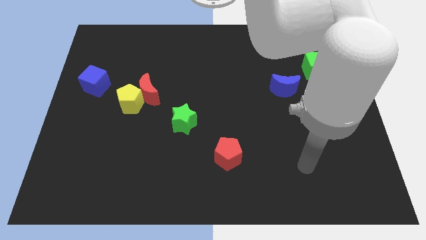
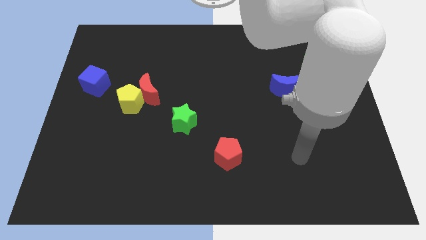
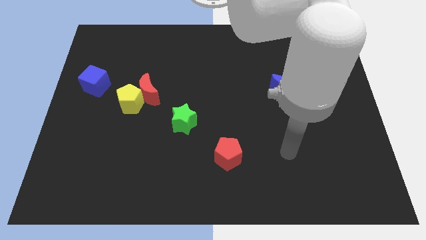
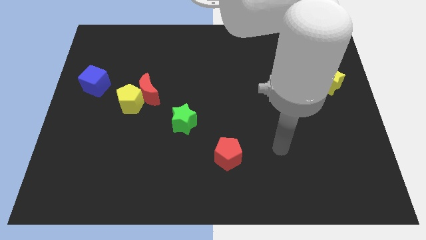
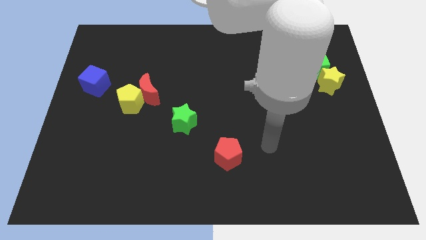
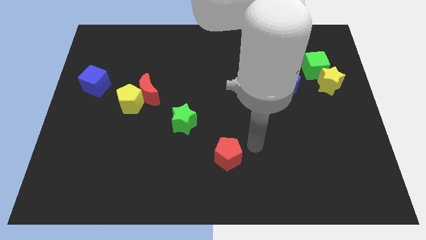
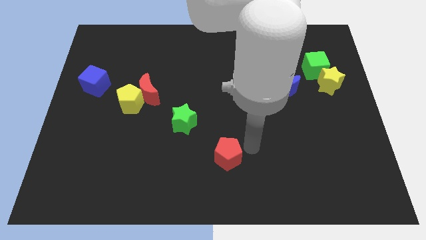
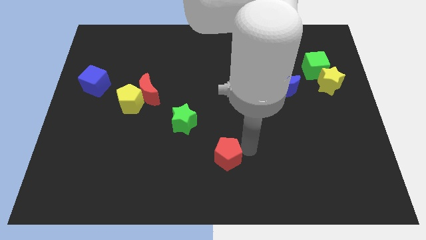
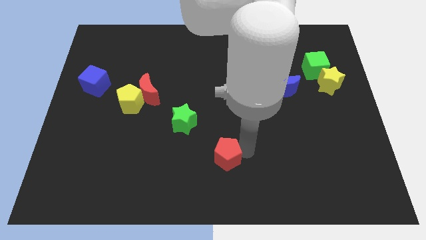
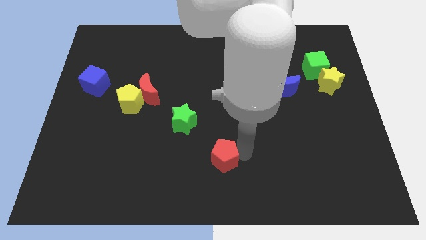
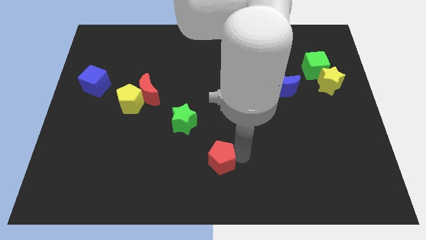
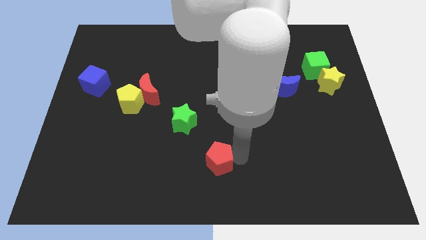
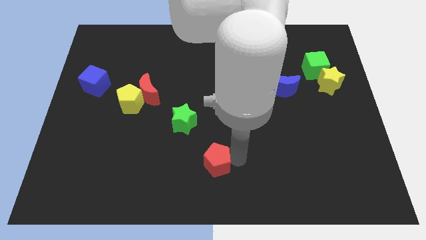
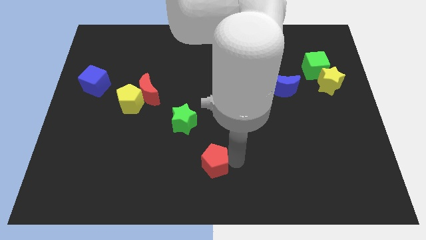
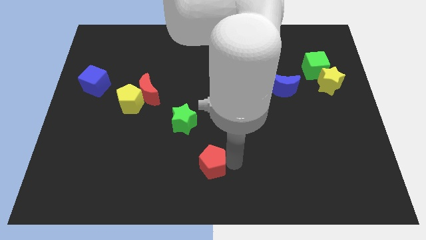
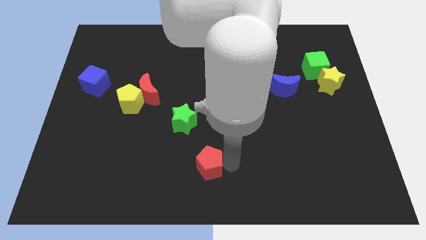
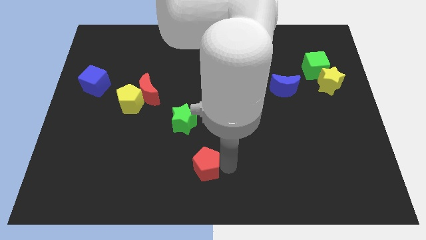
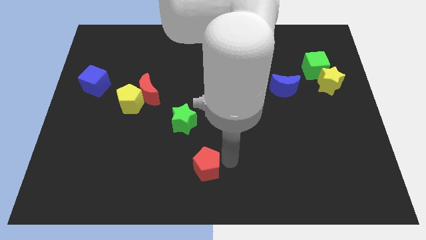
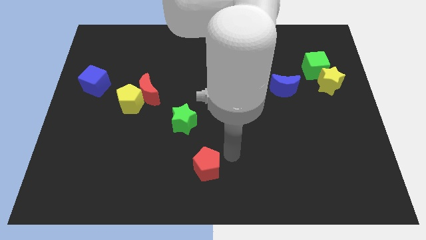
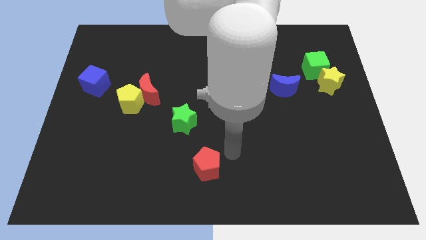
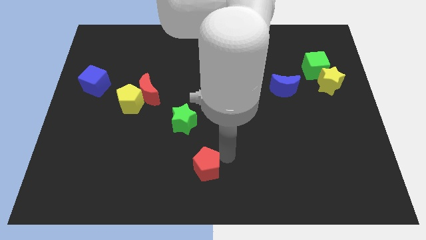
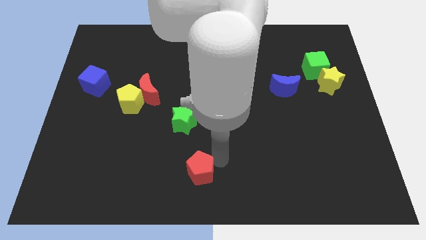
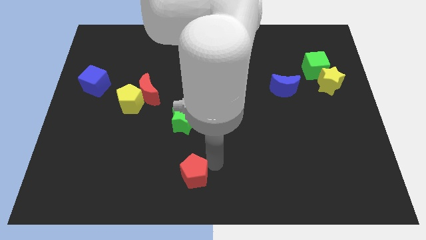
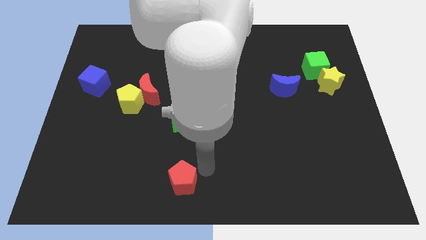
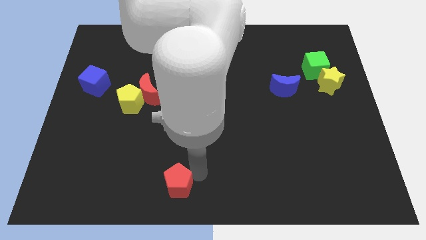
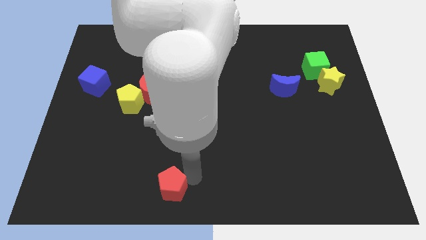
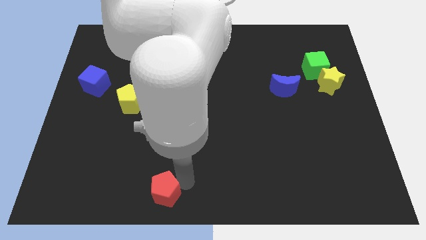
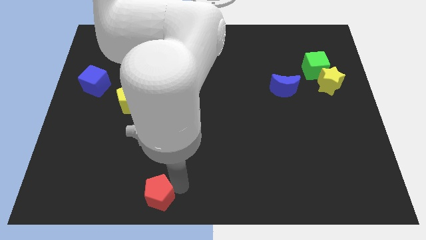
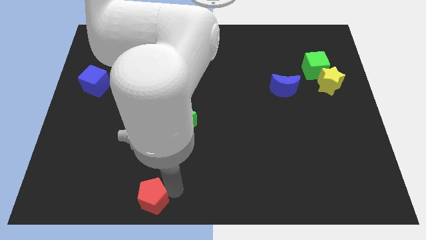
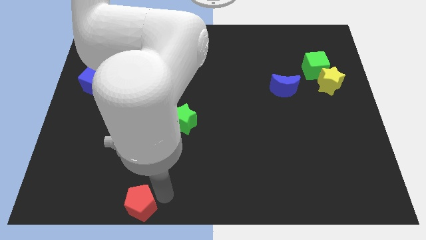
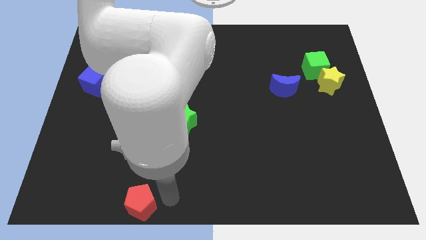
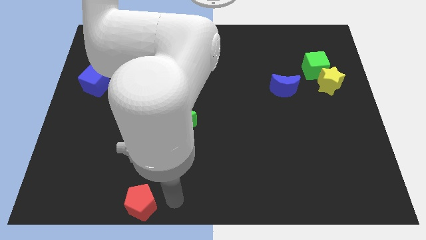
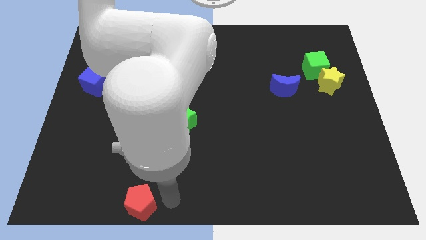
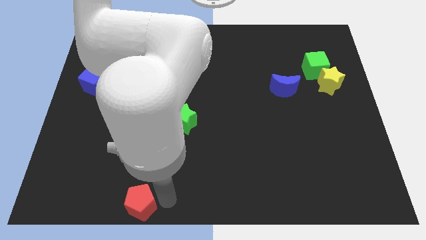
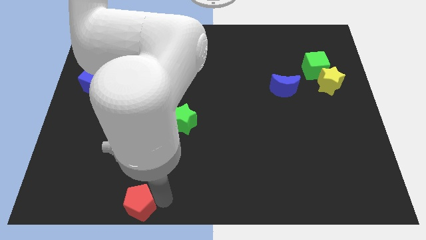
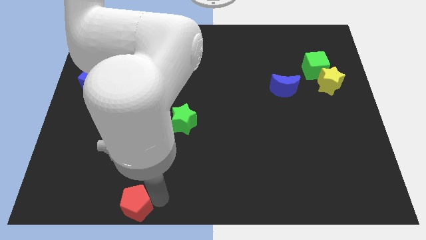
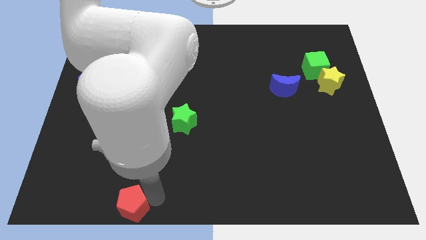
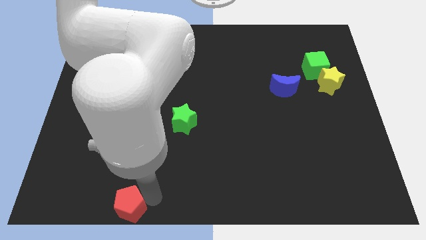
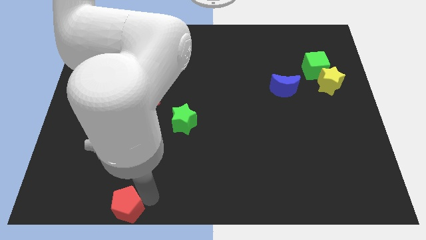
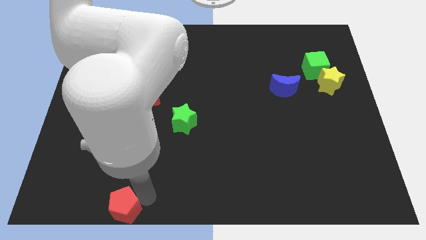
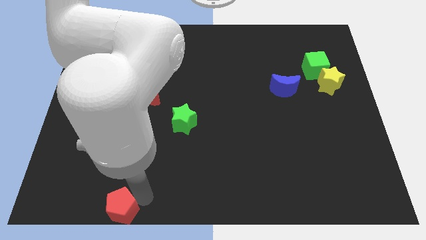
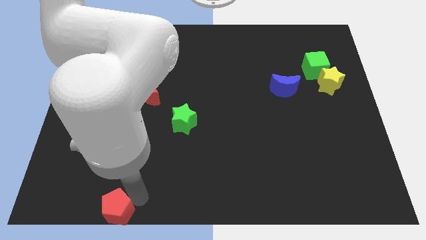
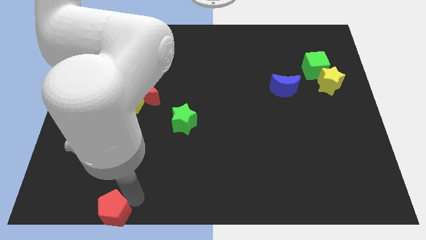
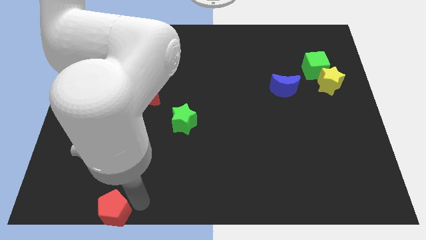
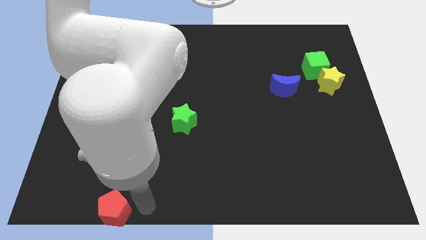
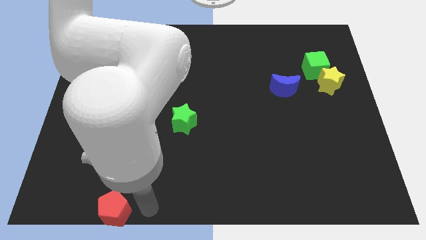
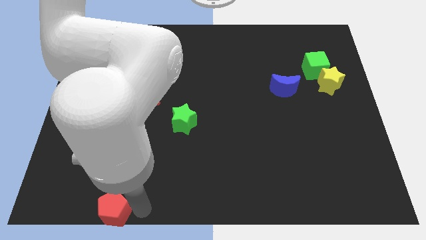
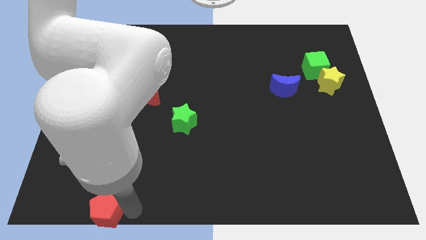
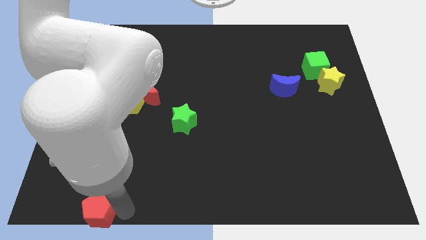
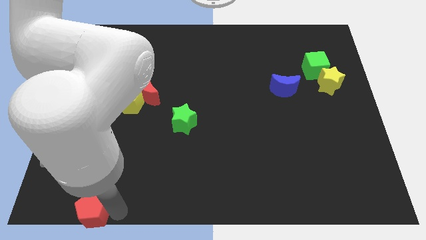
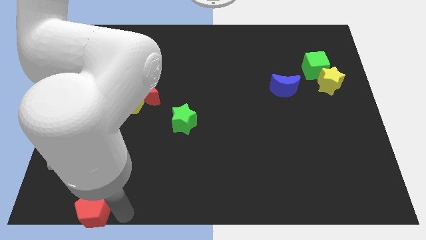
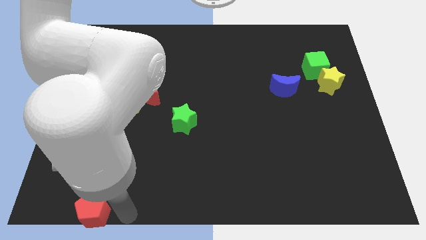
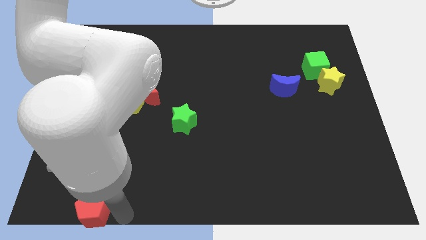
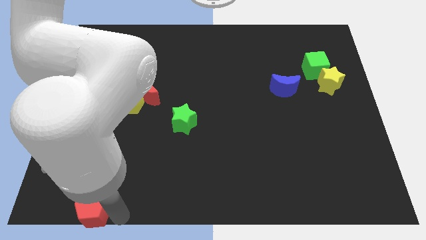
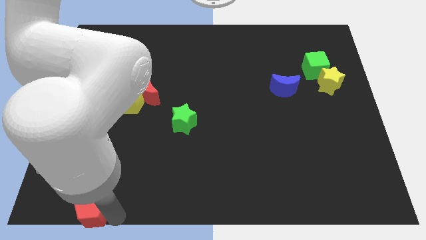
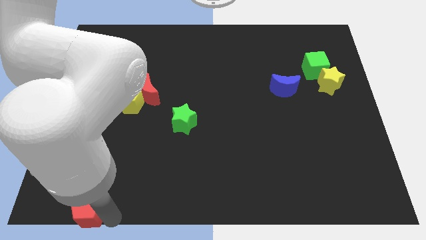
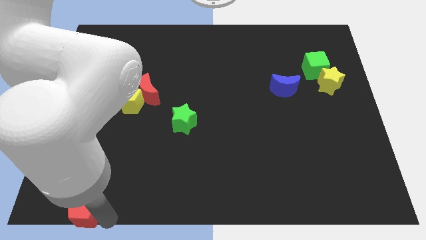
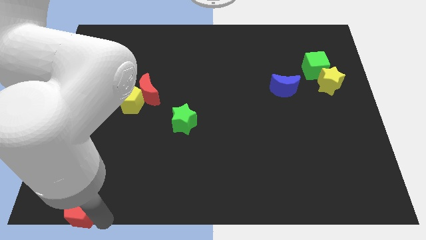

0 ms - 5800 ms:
put the red pentagon to the lower left corner
